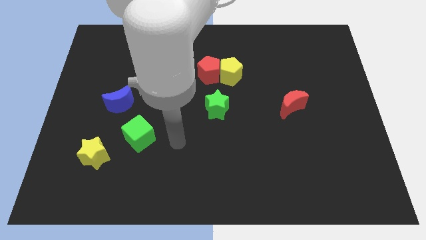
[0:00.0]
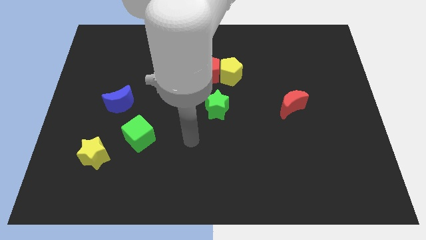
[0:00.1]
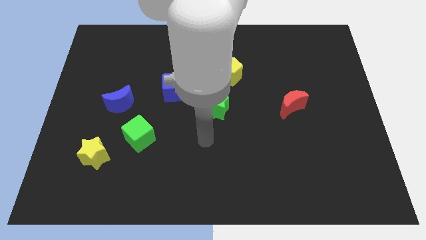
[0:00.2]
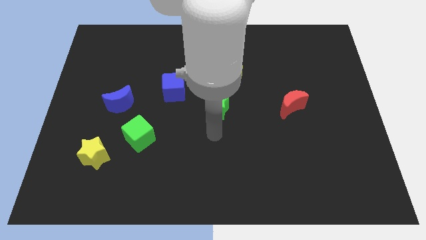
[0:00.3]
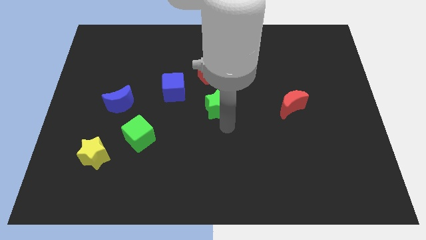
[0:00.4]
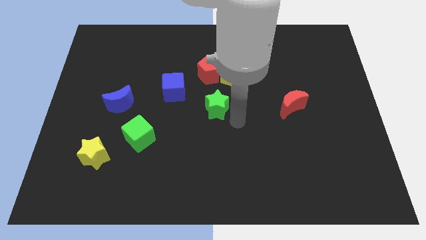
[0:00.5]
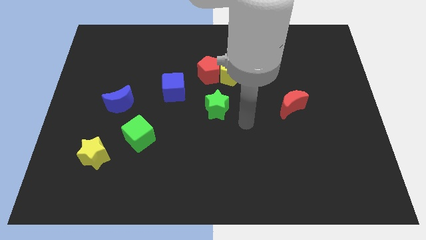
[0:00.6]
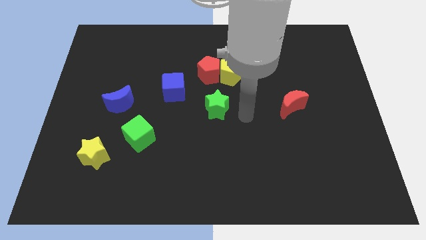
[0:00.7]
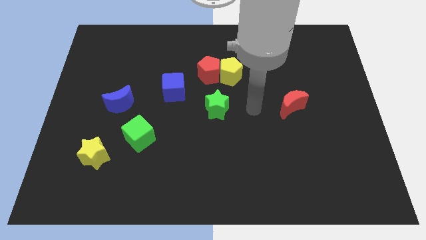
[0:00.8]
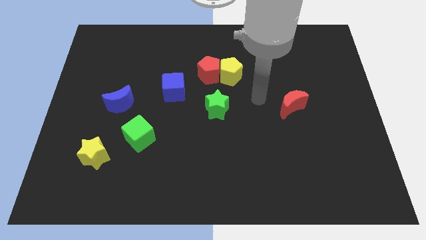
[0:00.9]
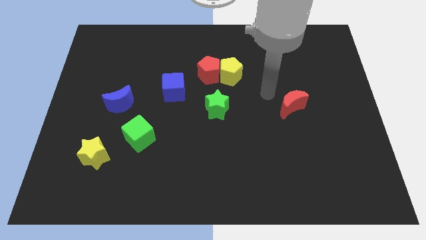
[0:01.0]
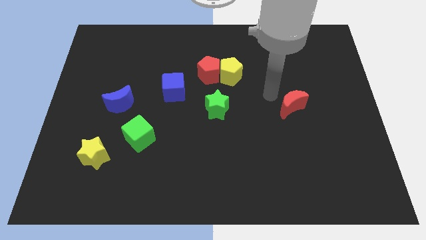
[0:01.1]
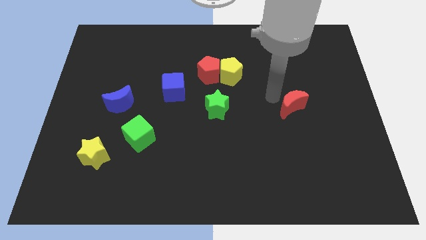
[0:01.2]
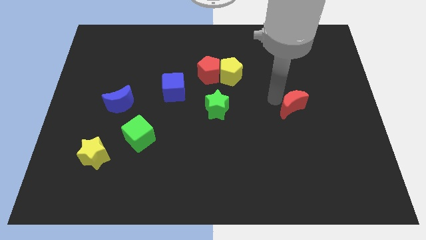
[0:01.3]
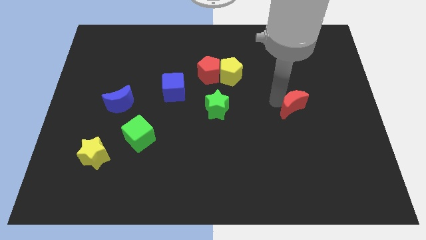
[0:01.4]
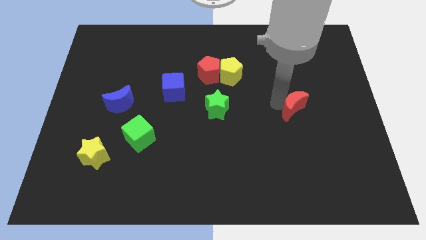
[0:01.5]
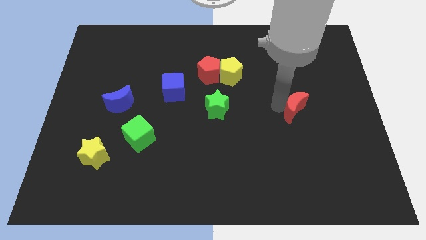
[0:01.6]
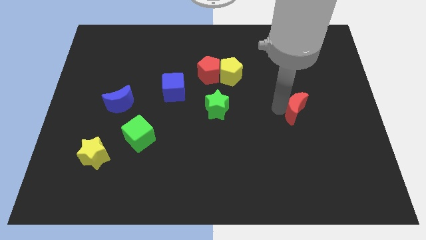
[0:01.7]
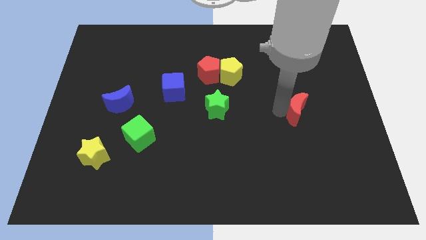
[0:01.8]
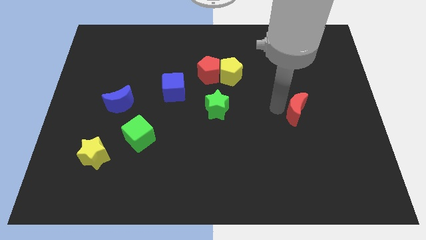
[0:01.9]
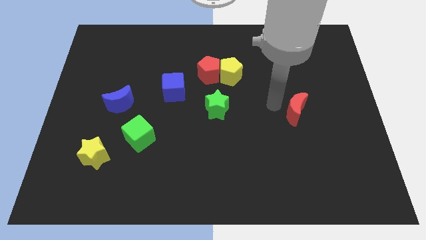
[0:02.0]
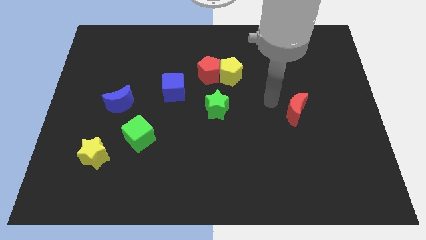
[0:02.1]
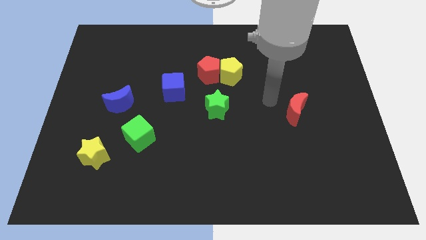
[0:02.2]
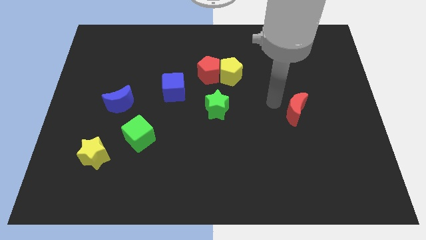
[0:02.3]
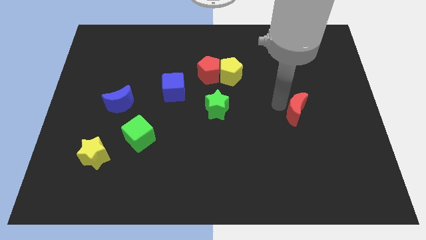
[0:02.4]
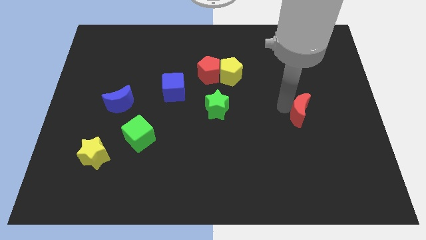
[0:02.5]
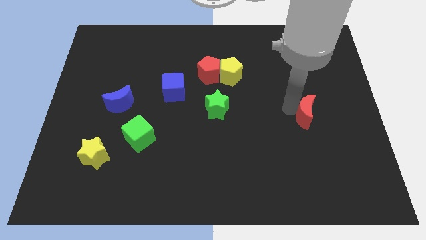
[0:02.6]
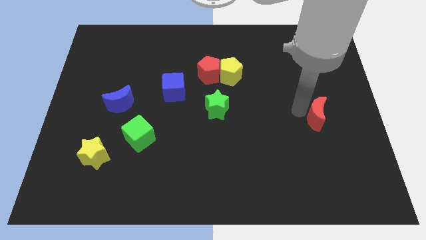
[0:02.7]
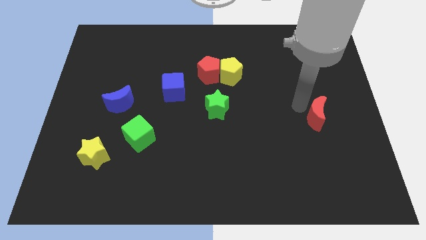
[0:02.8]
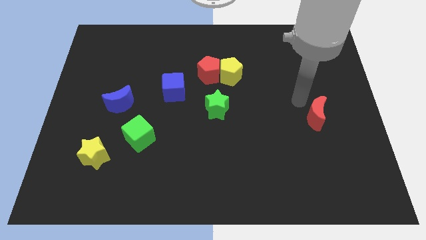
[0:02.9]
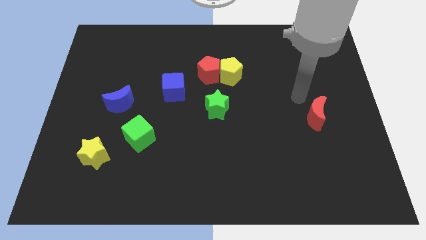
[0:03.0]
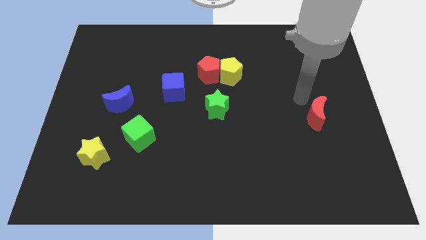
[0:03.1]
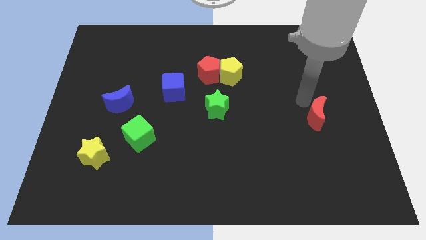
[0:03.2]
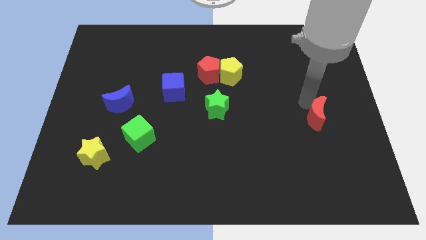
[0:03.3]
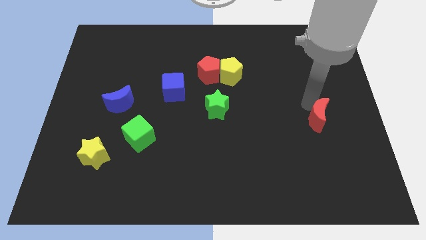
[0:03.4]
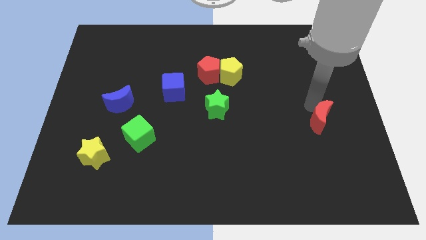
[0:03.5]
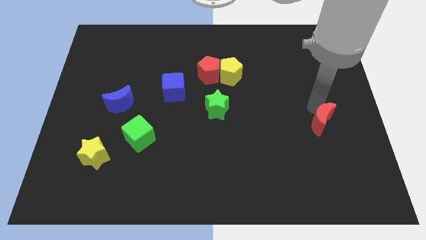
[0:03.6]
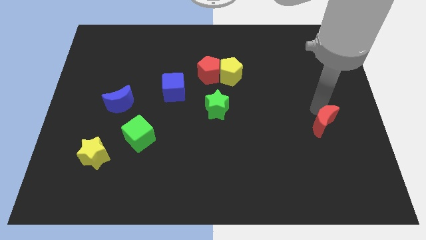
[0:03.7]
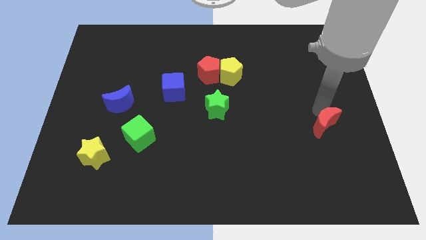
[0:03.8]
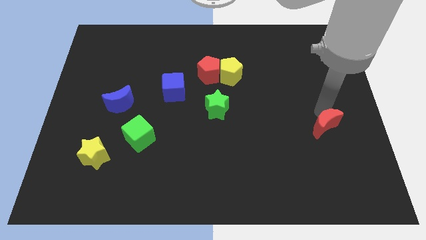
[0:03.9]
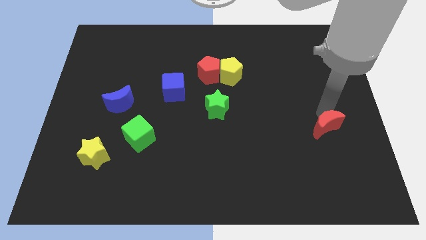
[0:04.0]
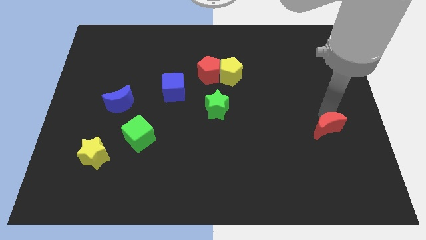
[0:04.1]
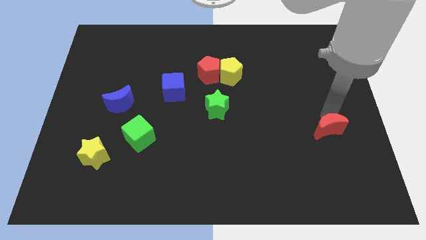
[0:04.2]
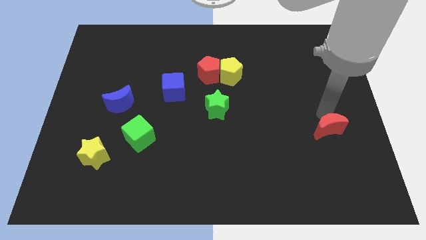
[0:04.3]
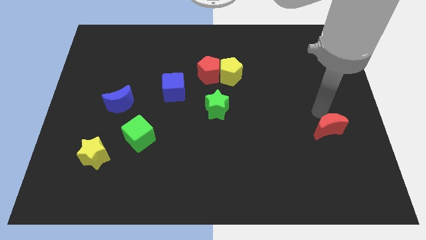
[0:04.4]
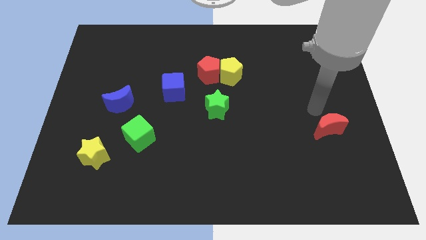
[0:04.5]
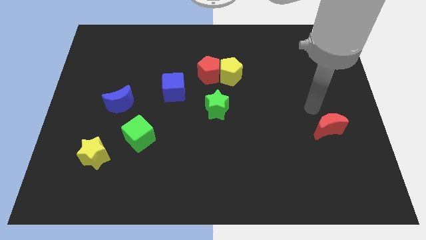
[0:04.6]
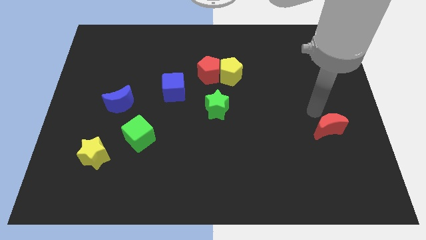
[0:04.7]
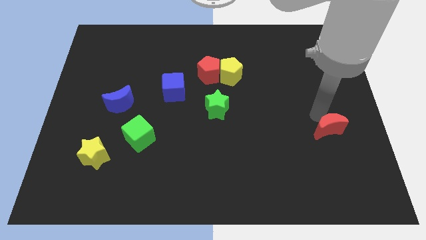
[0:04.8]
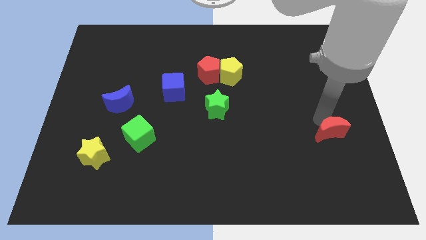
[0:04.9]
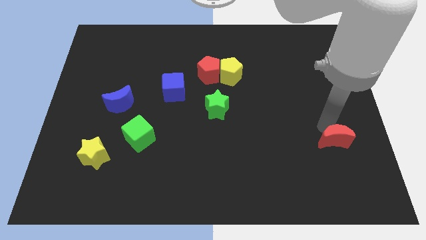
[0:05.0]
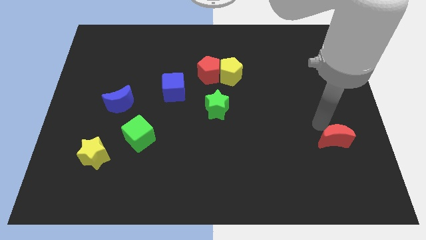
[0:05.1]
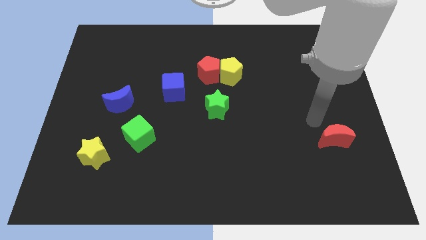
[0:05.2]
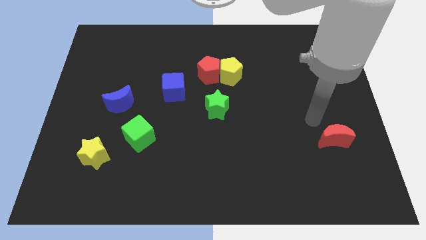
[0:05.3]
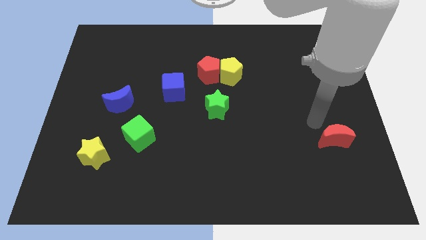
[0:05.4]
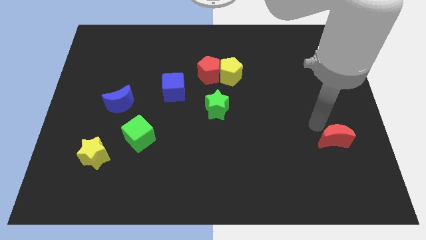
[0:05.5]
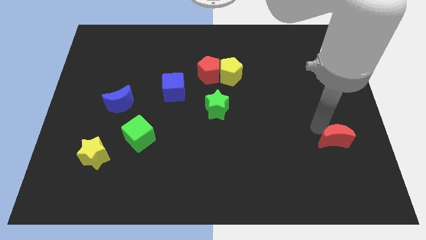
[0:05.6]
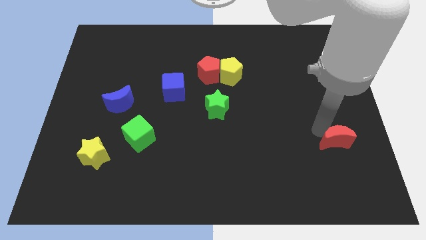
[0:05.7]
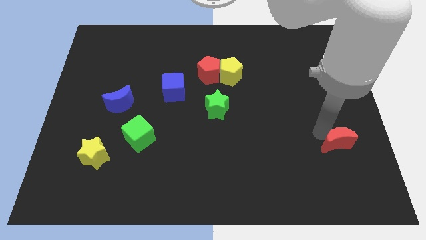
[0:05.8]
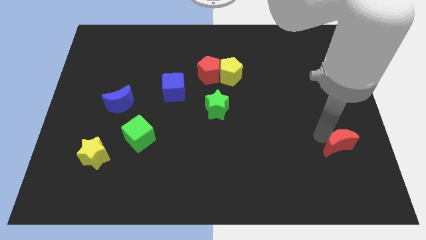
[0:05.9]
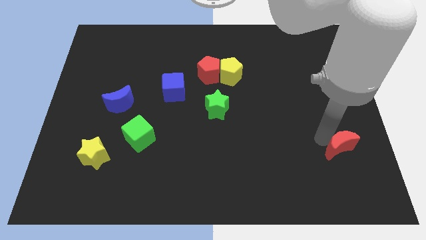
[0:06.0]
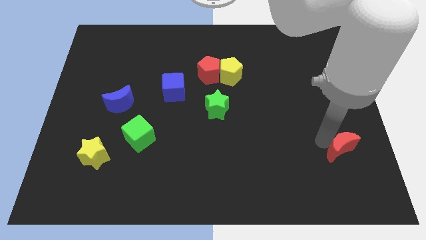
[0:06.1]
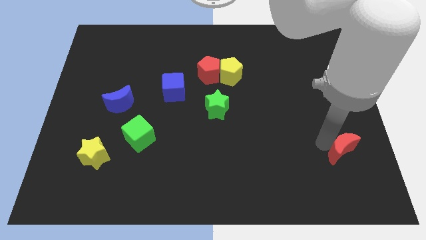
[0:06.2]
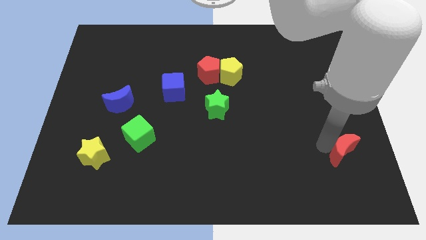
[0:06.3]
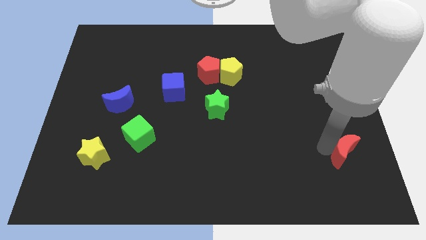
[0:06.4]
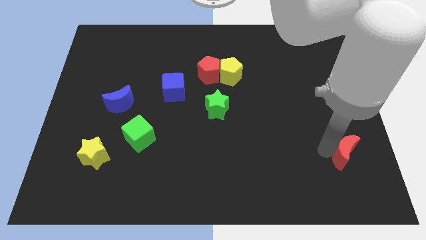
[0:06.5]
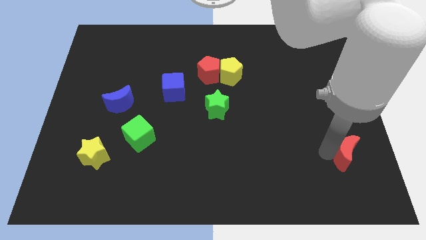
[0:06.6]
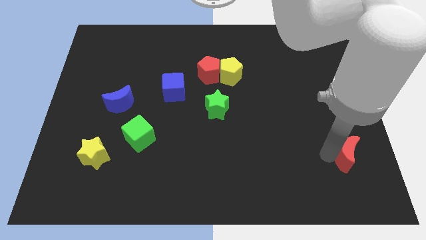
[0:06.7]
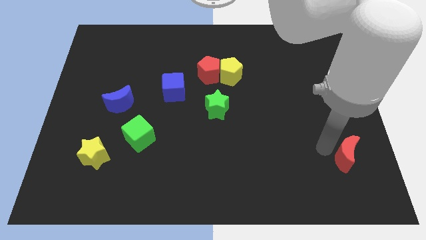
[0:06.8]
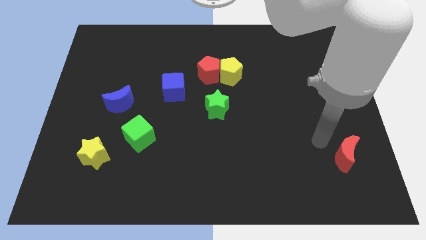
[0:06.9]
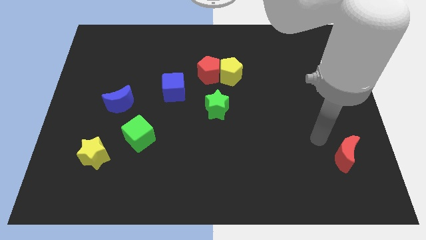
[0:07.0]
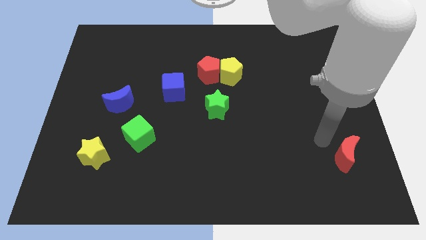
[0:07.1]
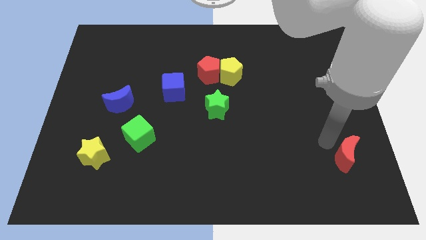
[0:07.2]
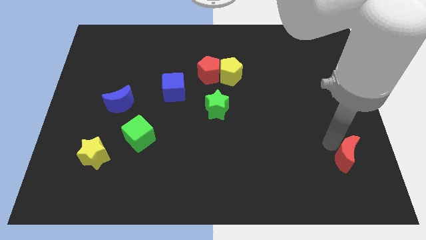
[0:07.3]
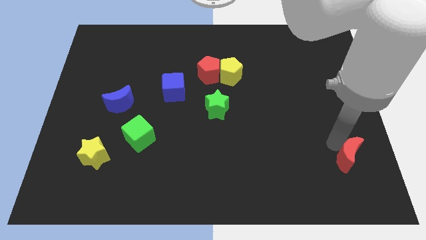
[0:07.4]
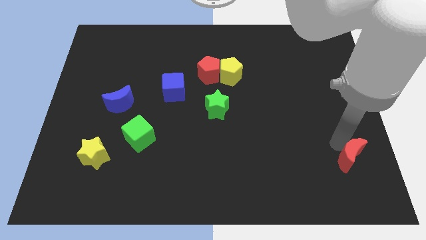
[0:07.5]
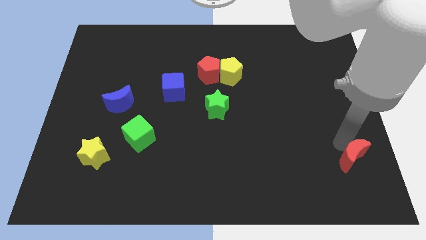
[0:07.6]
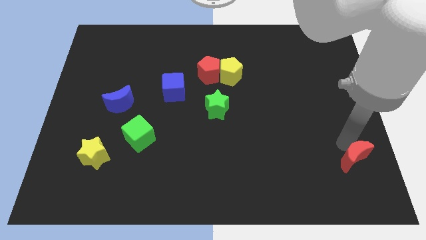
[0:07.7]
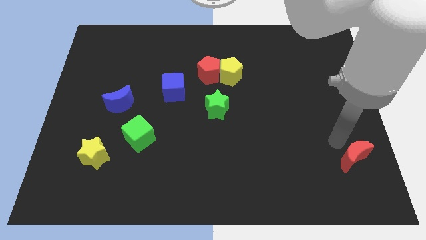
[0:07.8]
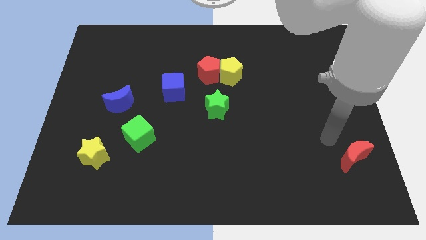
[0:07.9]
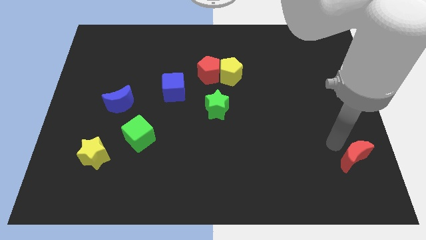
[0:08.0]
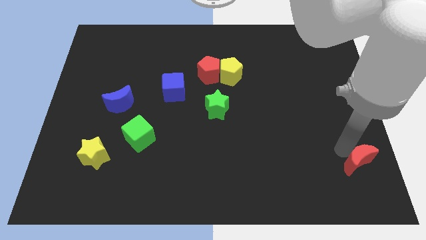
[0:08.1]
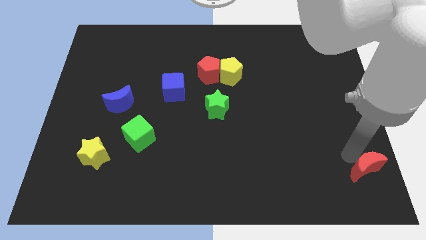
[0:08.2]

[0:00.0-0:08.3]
move the red moon to the bottom right
